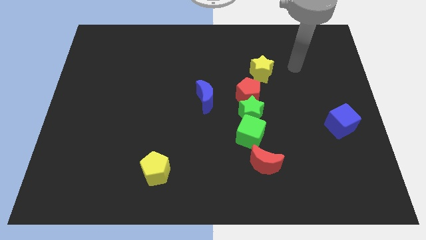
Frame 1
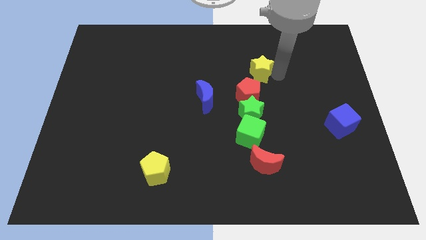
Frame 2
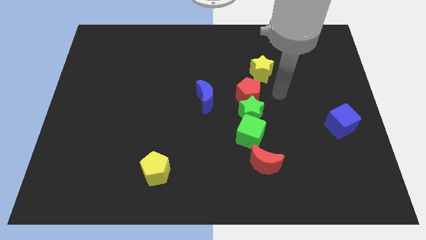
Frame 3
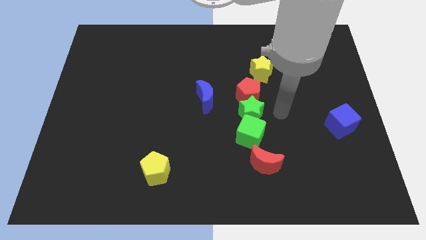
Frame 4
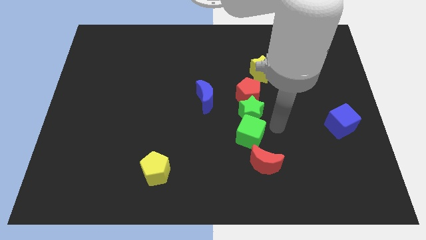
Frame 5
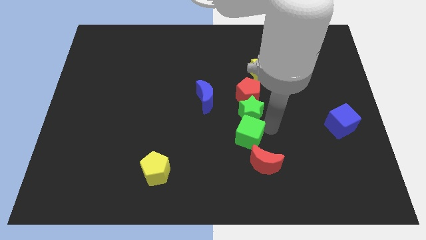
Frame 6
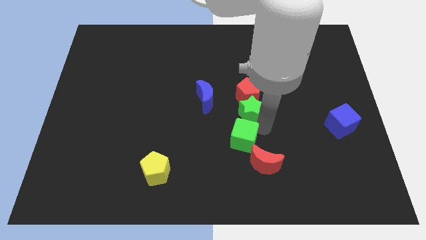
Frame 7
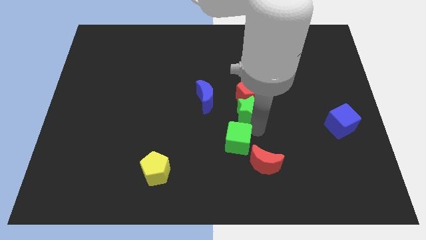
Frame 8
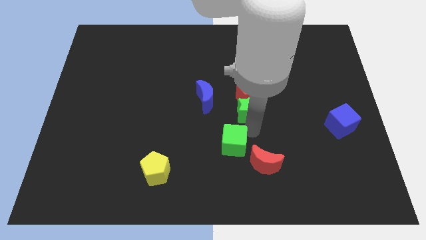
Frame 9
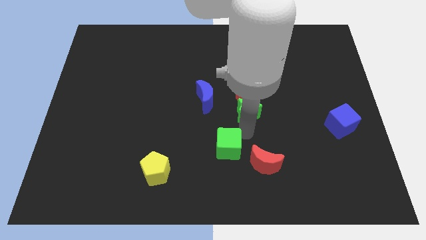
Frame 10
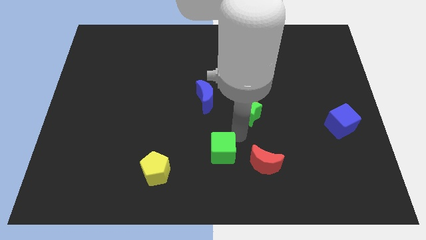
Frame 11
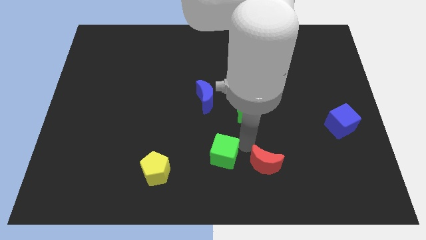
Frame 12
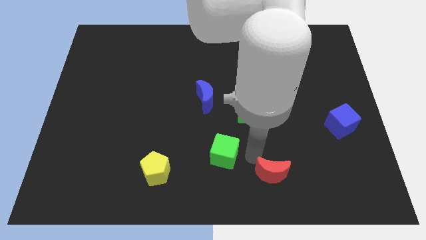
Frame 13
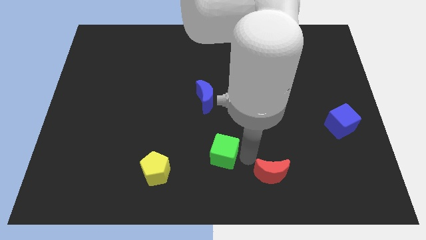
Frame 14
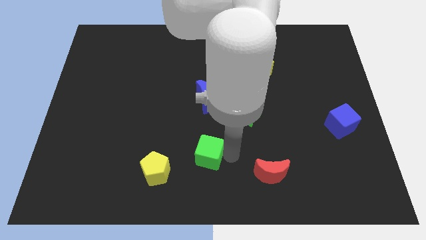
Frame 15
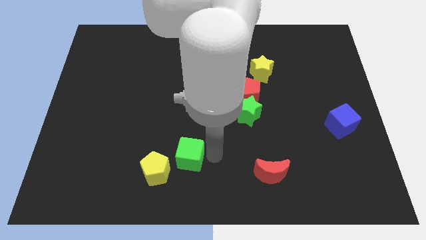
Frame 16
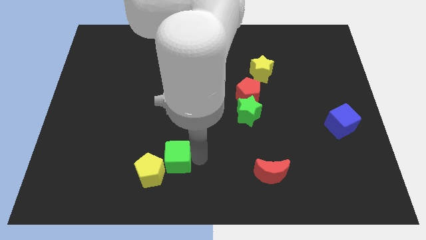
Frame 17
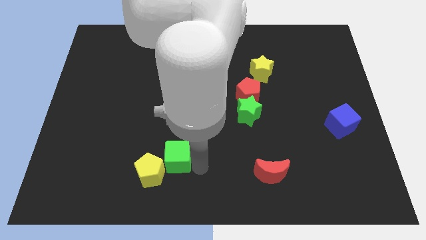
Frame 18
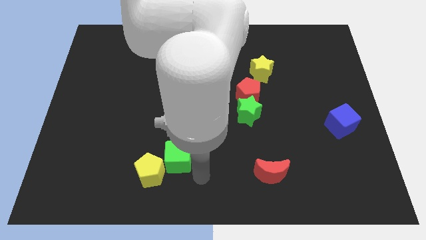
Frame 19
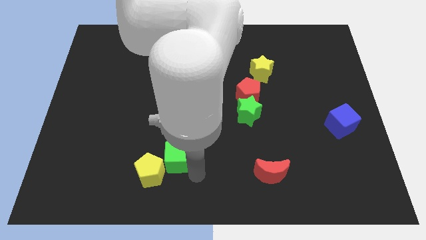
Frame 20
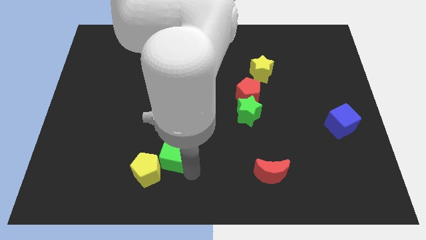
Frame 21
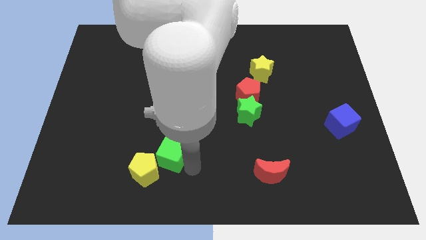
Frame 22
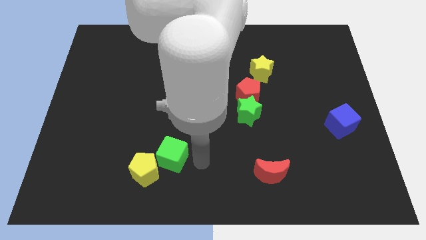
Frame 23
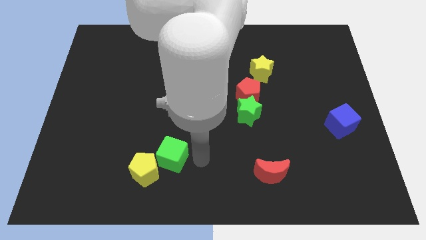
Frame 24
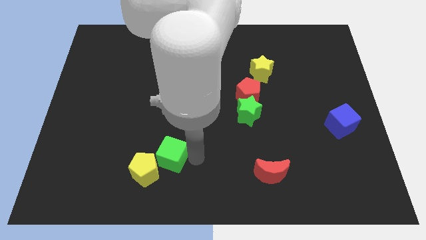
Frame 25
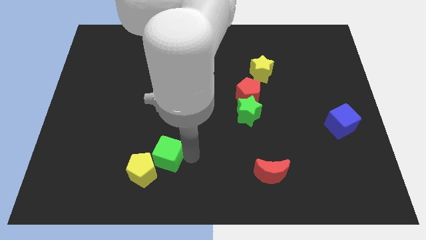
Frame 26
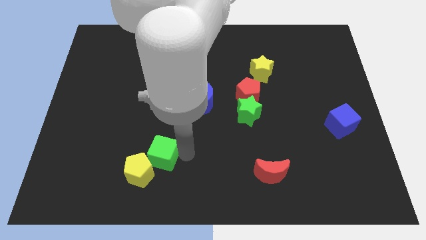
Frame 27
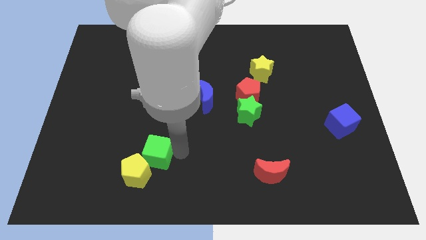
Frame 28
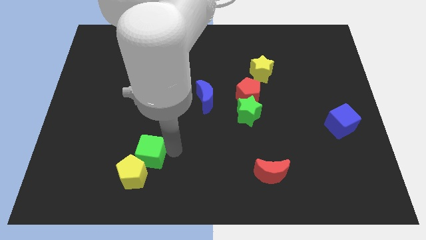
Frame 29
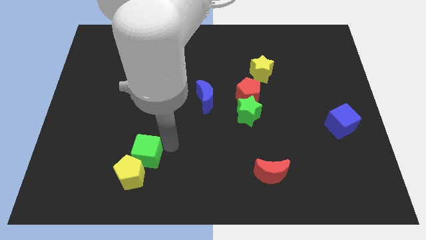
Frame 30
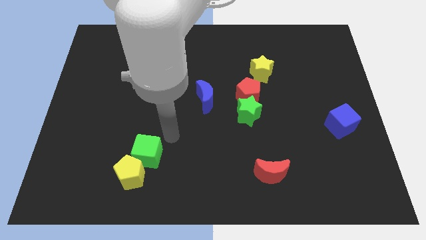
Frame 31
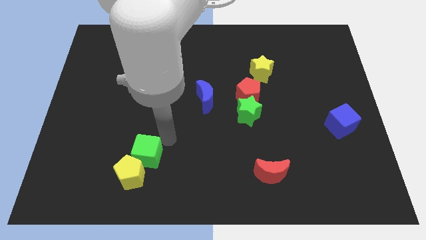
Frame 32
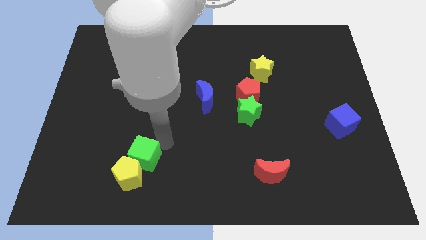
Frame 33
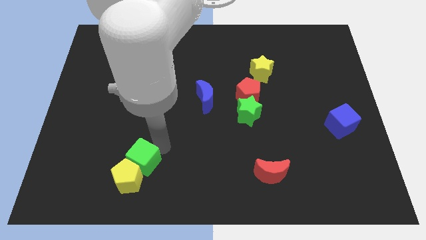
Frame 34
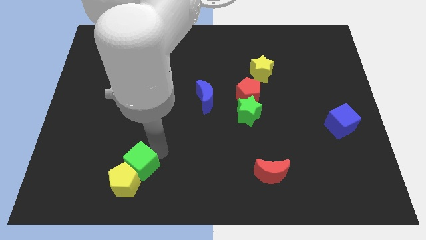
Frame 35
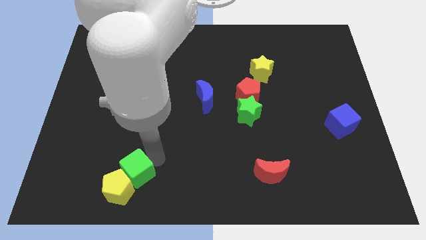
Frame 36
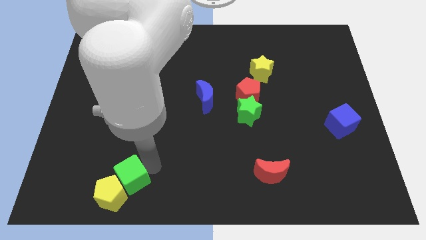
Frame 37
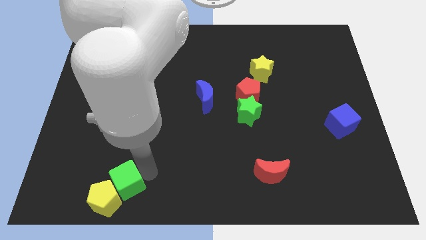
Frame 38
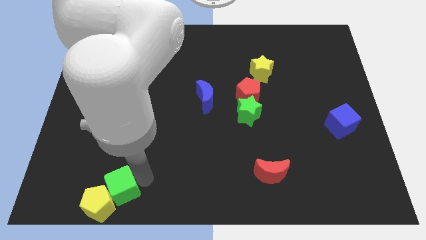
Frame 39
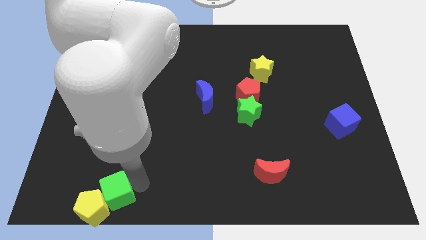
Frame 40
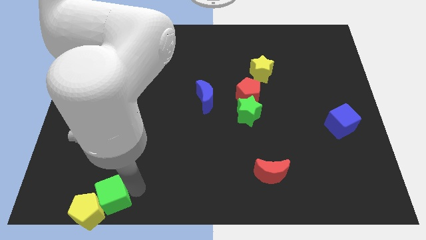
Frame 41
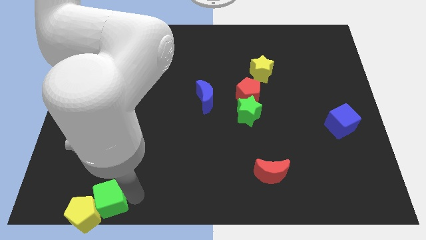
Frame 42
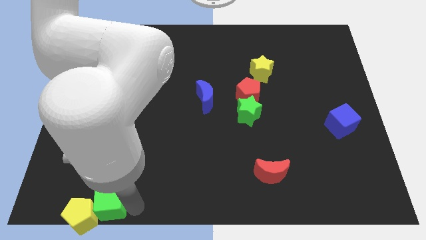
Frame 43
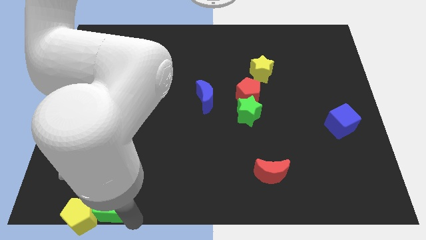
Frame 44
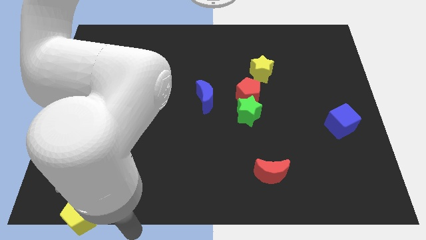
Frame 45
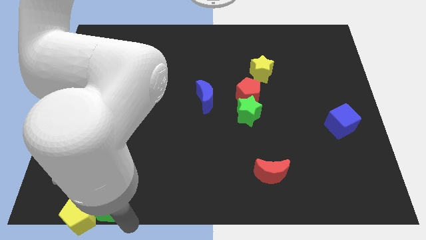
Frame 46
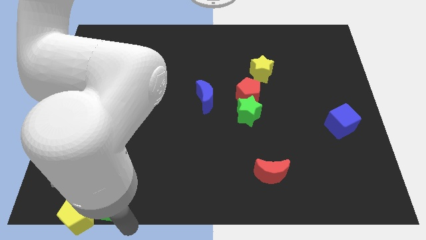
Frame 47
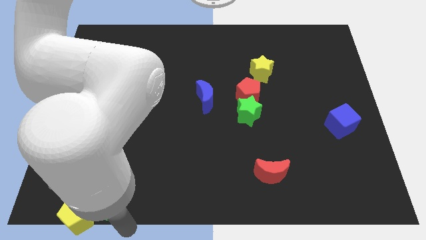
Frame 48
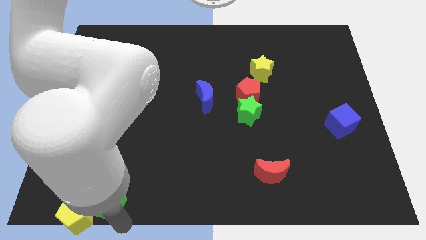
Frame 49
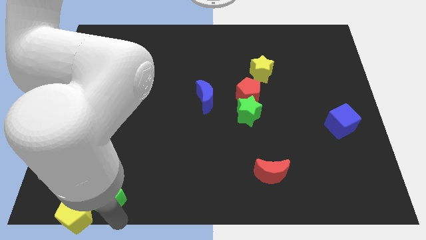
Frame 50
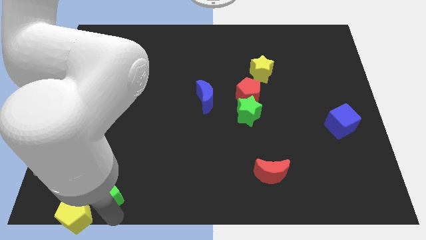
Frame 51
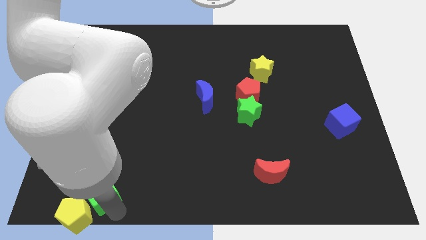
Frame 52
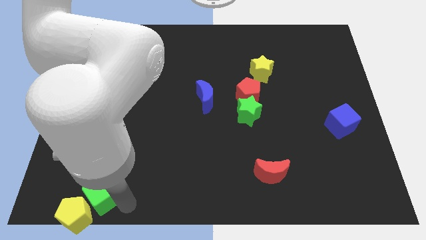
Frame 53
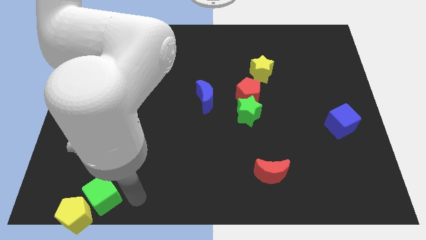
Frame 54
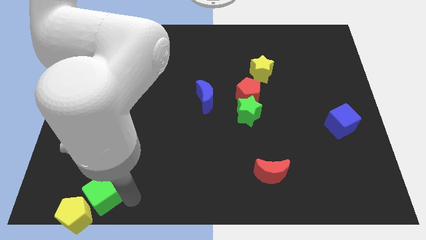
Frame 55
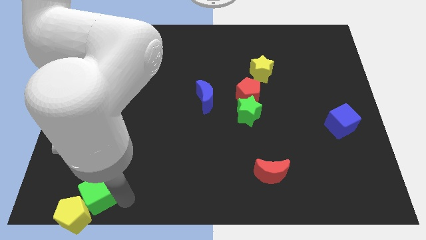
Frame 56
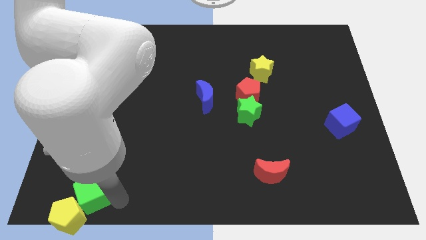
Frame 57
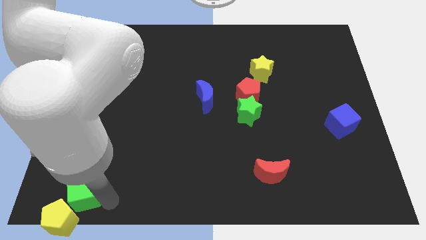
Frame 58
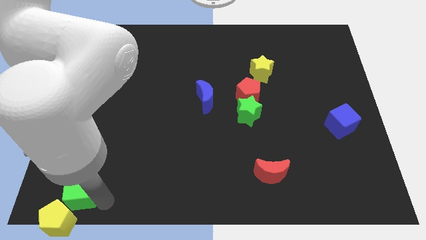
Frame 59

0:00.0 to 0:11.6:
push the green cube to the bottom left corner
